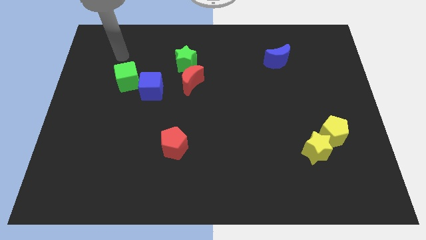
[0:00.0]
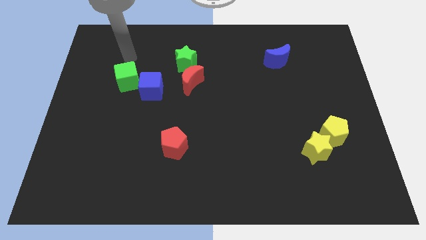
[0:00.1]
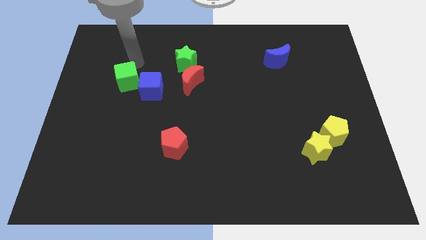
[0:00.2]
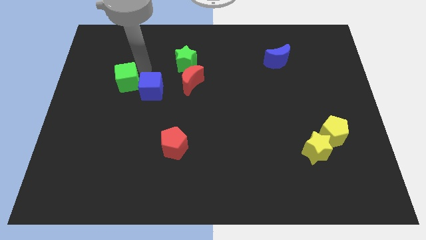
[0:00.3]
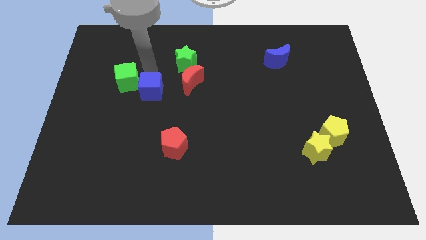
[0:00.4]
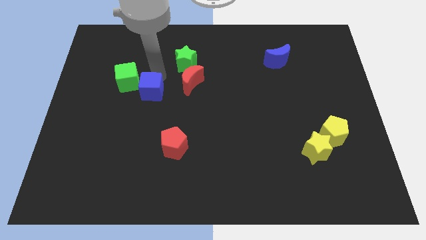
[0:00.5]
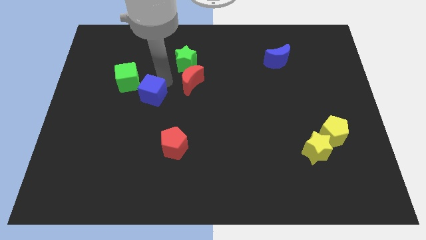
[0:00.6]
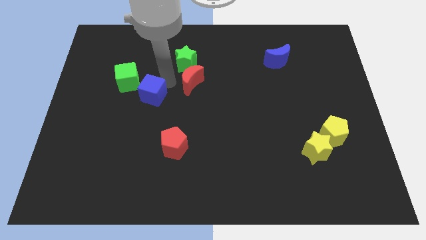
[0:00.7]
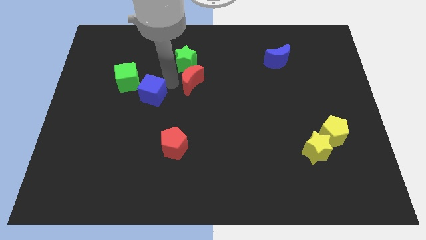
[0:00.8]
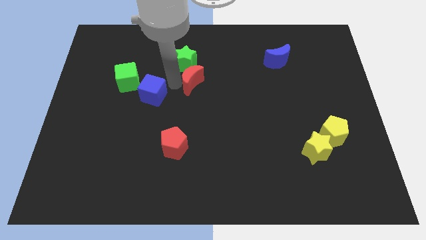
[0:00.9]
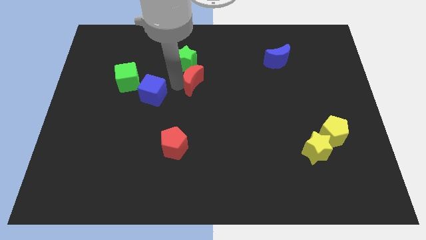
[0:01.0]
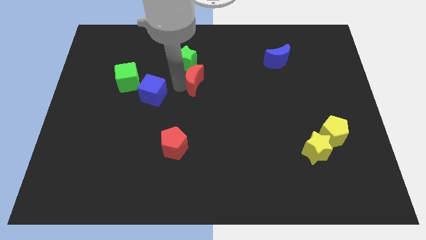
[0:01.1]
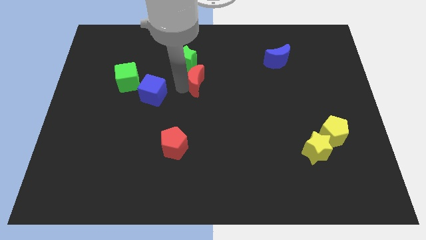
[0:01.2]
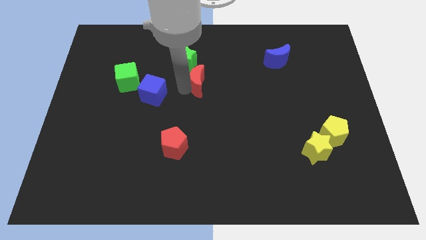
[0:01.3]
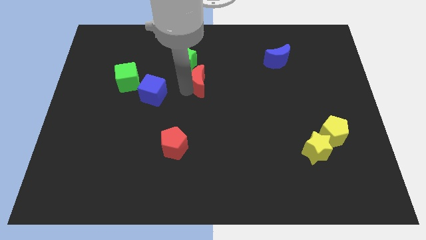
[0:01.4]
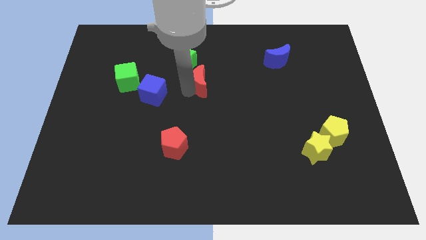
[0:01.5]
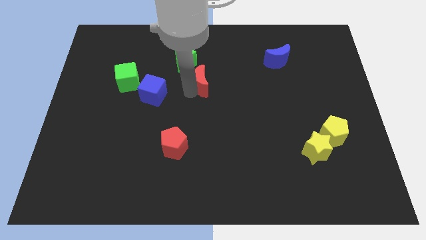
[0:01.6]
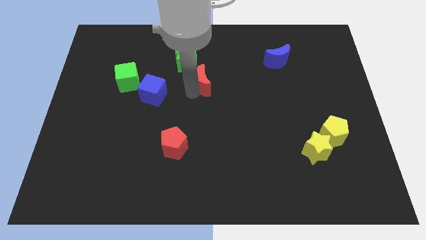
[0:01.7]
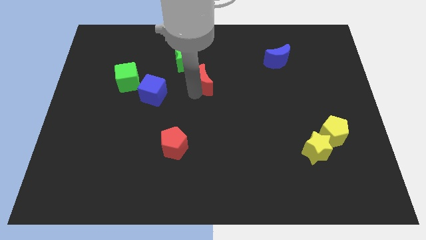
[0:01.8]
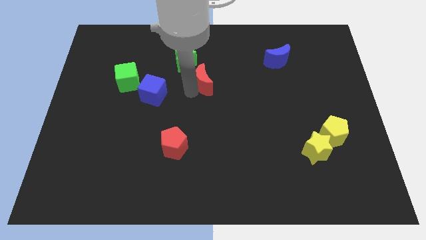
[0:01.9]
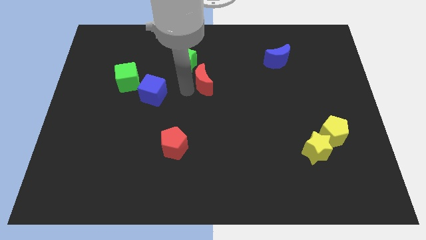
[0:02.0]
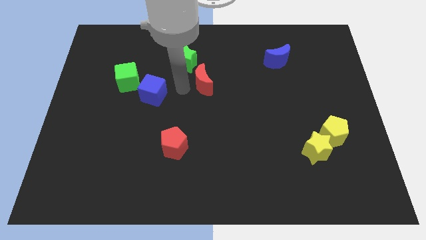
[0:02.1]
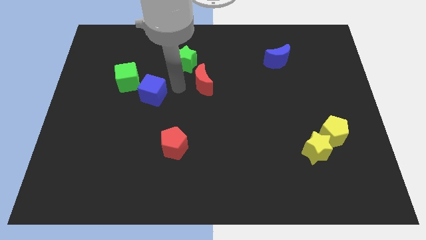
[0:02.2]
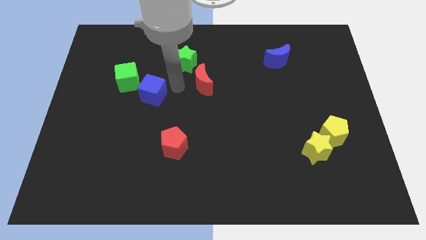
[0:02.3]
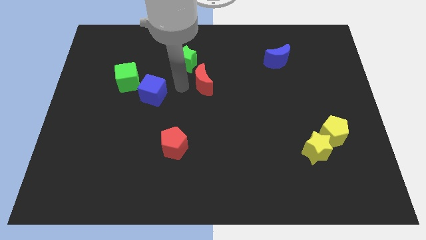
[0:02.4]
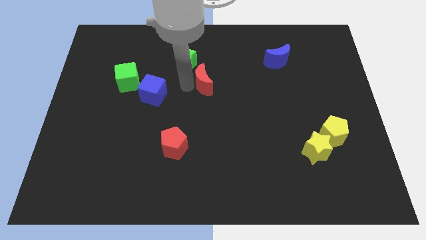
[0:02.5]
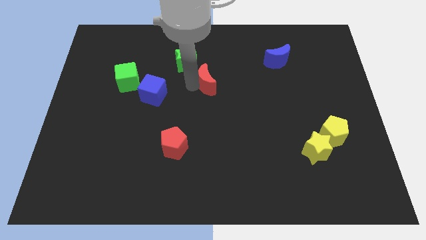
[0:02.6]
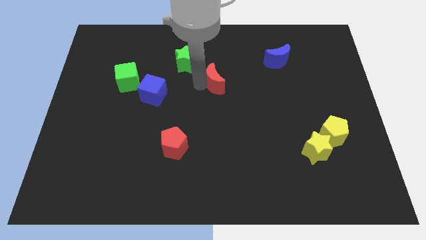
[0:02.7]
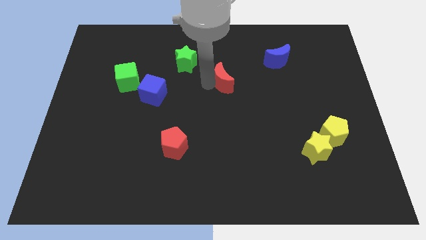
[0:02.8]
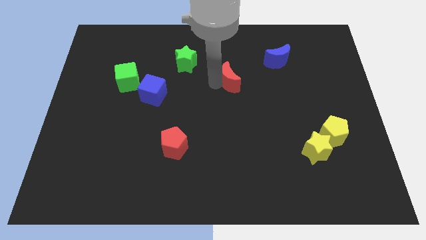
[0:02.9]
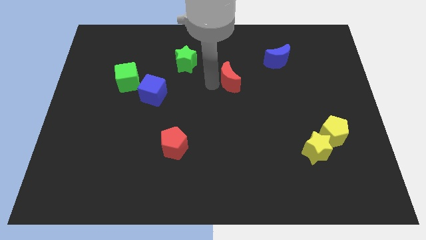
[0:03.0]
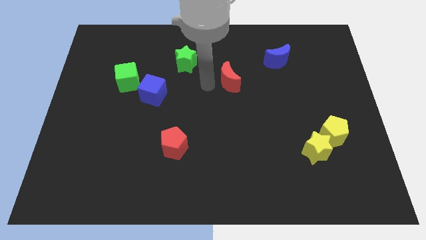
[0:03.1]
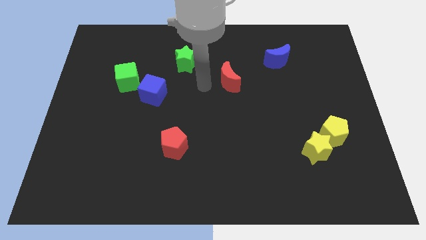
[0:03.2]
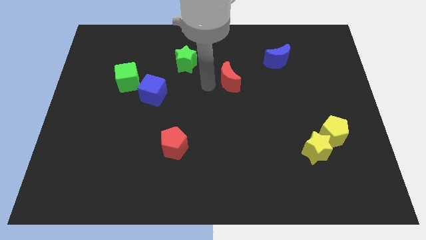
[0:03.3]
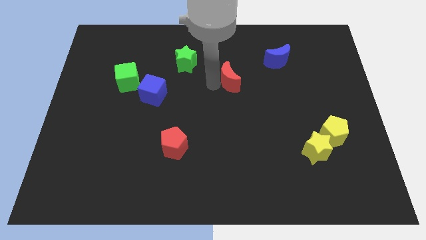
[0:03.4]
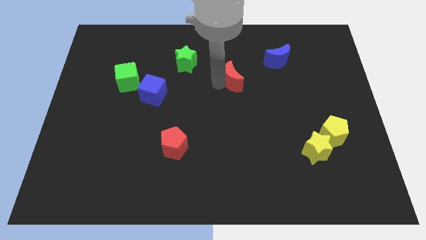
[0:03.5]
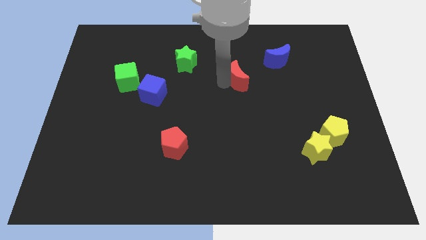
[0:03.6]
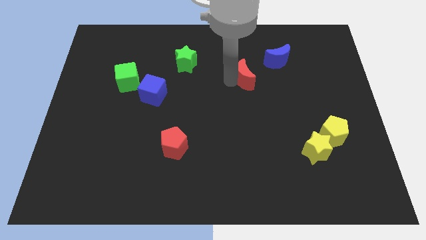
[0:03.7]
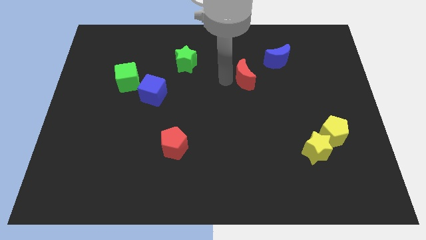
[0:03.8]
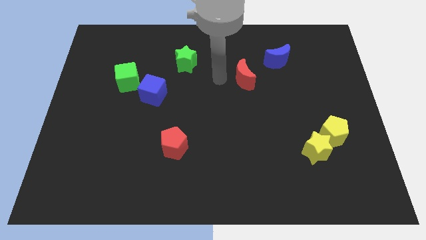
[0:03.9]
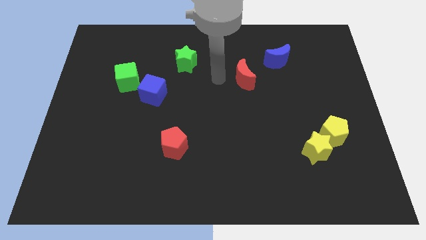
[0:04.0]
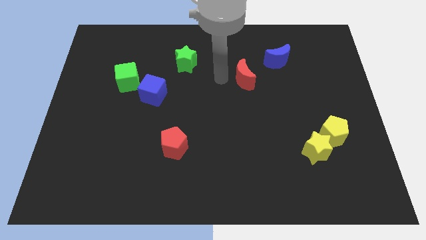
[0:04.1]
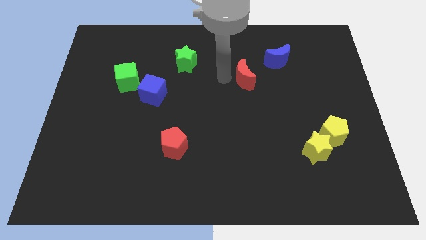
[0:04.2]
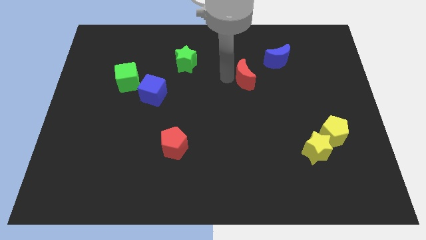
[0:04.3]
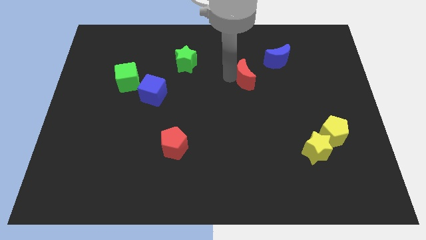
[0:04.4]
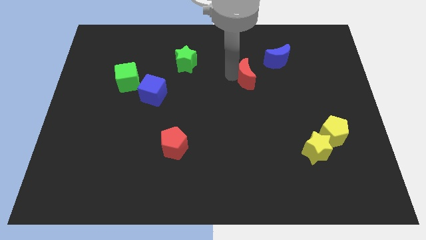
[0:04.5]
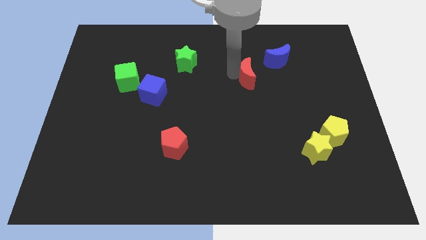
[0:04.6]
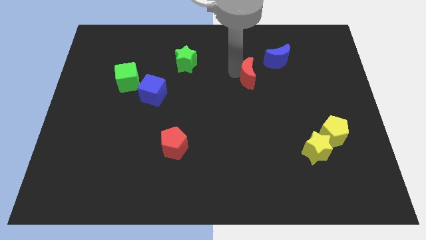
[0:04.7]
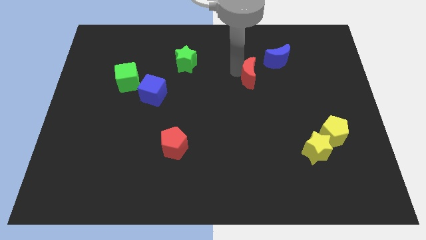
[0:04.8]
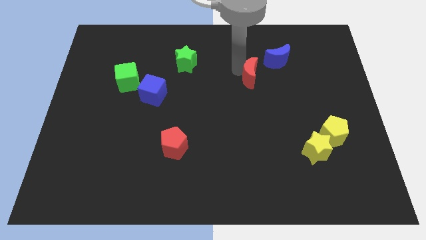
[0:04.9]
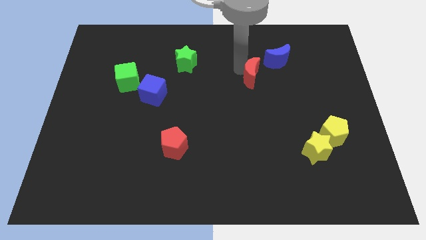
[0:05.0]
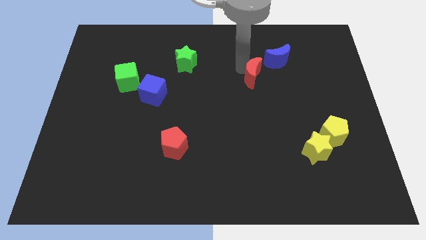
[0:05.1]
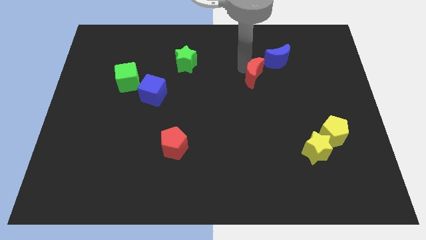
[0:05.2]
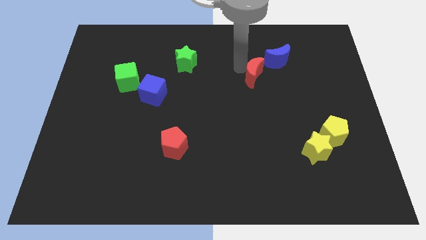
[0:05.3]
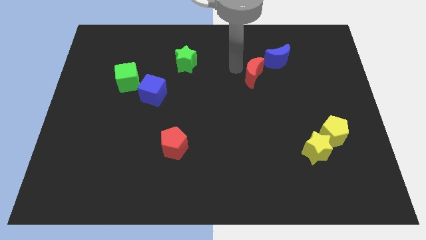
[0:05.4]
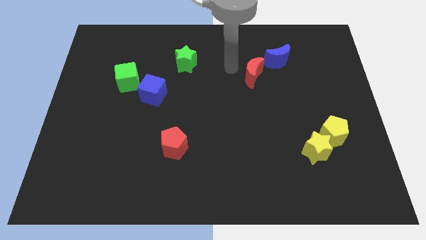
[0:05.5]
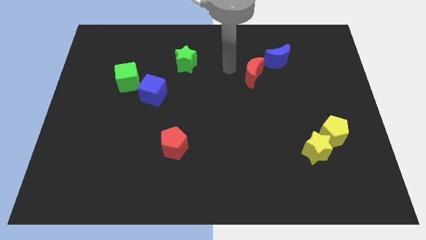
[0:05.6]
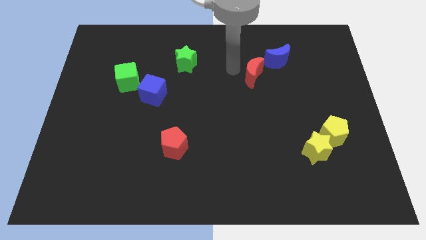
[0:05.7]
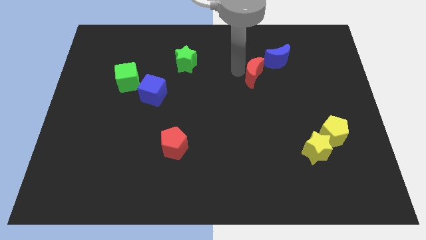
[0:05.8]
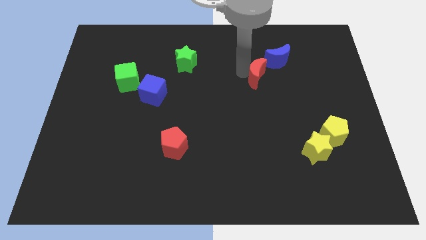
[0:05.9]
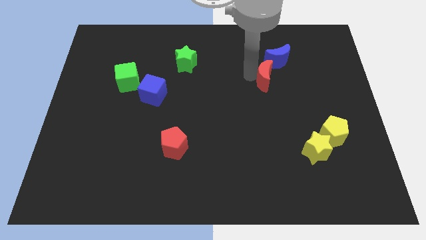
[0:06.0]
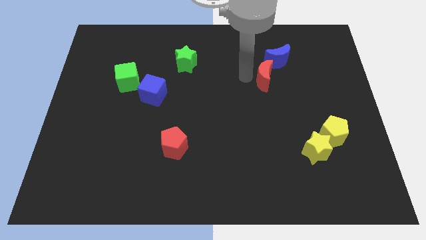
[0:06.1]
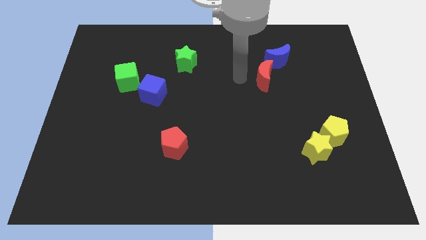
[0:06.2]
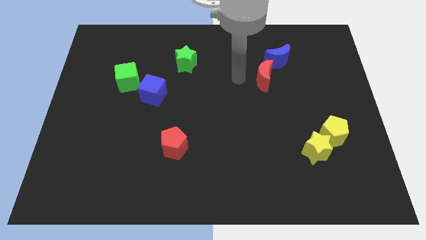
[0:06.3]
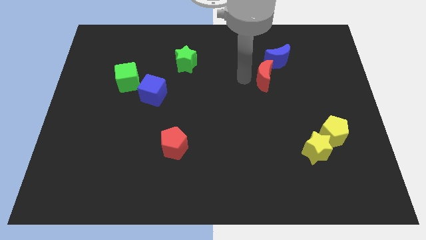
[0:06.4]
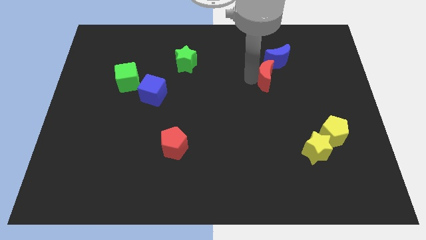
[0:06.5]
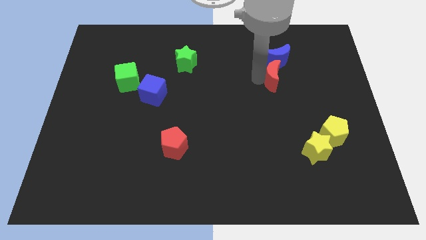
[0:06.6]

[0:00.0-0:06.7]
move the red moon to the right

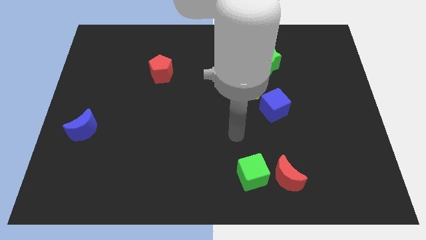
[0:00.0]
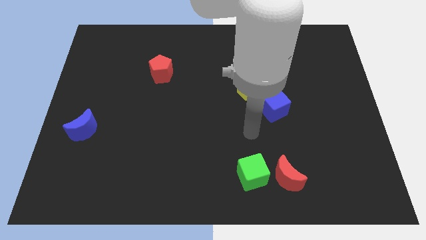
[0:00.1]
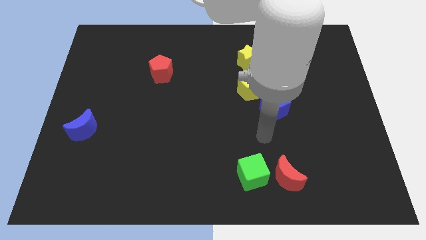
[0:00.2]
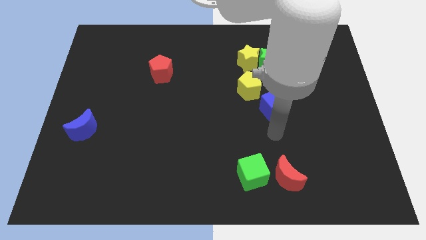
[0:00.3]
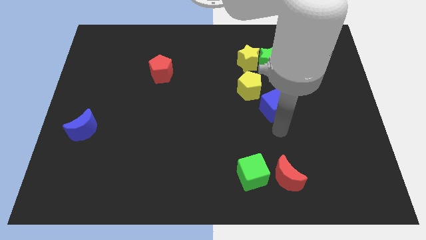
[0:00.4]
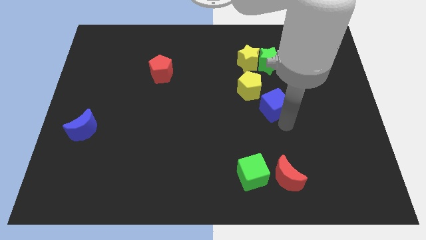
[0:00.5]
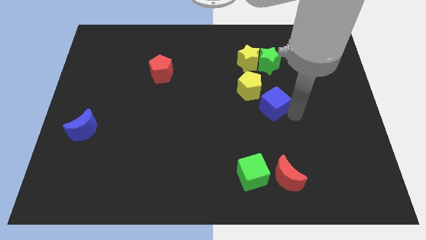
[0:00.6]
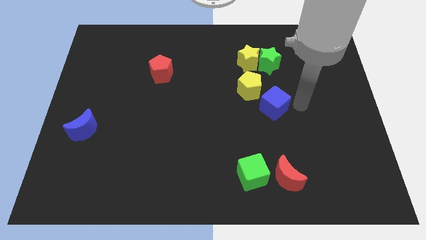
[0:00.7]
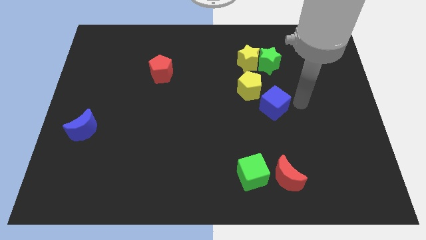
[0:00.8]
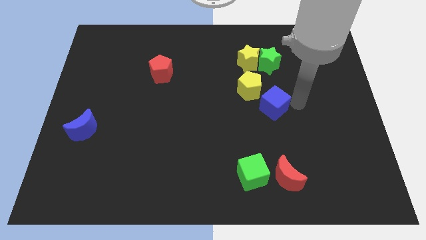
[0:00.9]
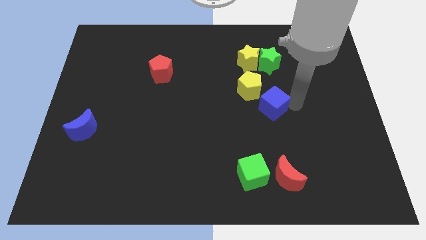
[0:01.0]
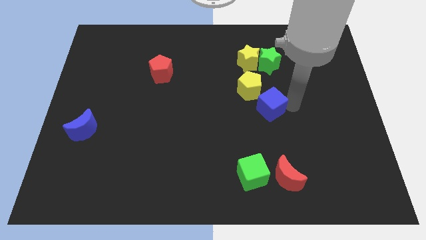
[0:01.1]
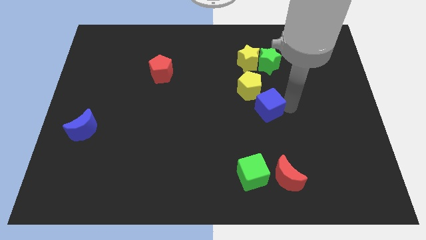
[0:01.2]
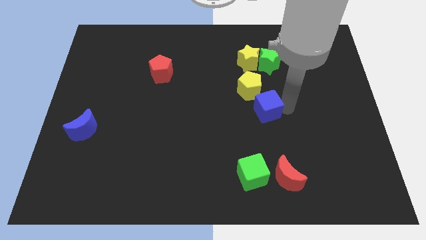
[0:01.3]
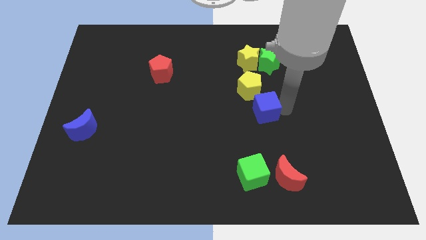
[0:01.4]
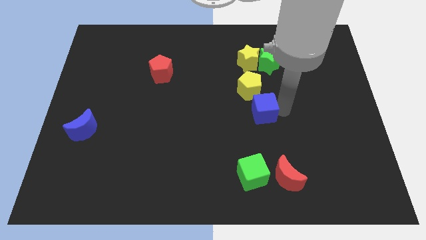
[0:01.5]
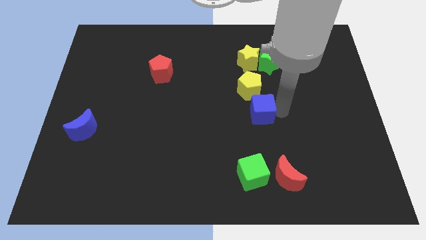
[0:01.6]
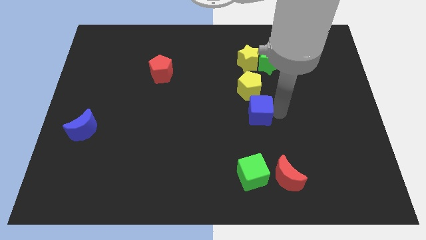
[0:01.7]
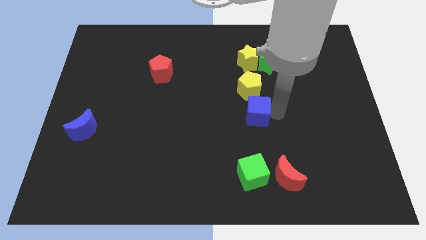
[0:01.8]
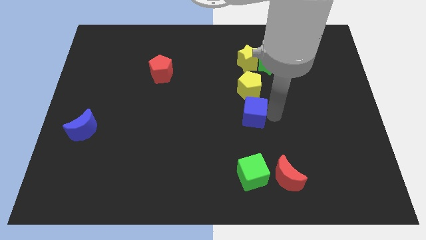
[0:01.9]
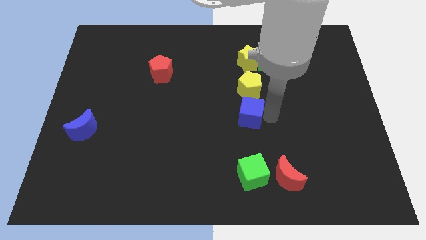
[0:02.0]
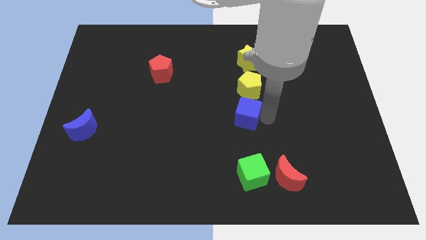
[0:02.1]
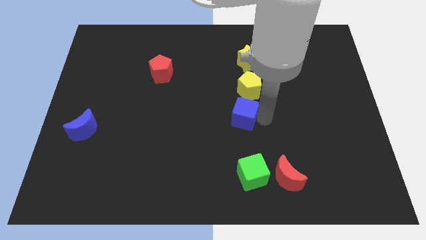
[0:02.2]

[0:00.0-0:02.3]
slightly push the blue cube to the left
